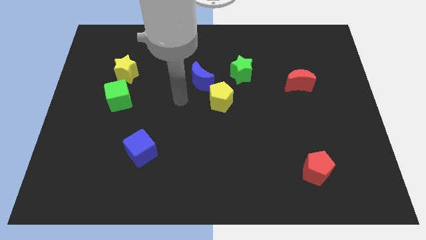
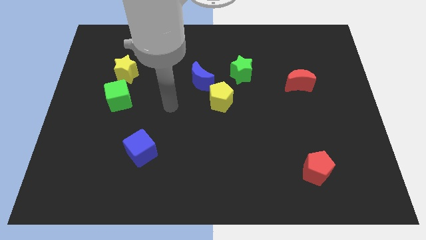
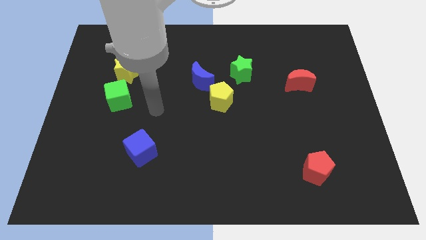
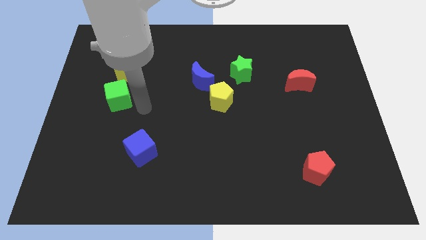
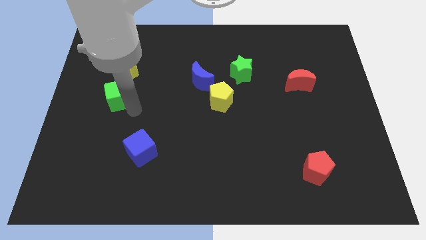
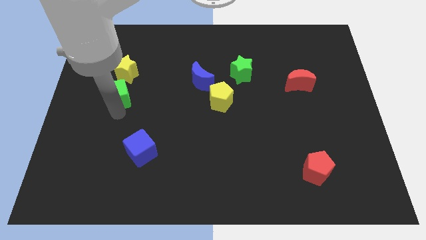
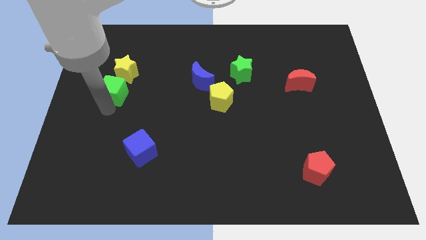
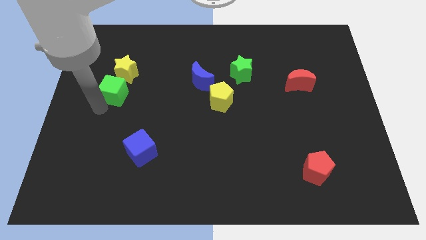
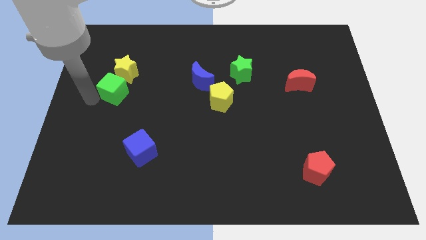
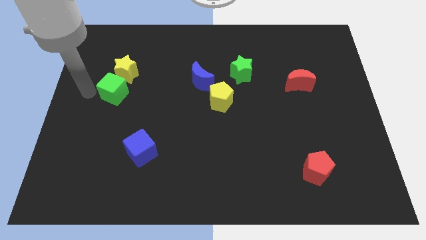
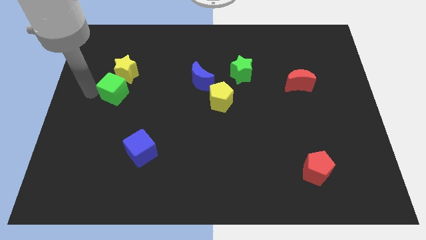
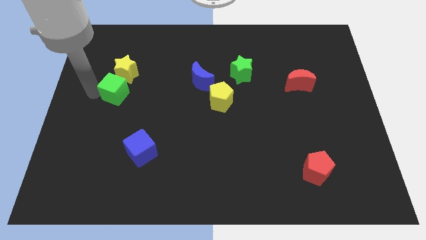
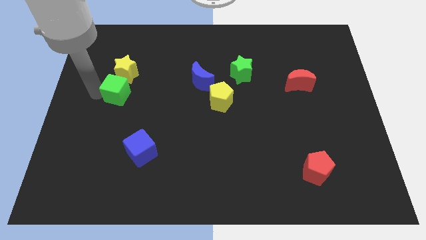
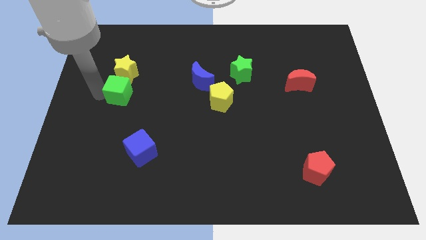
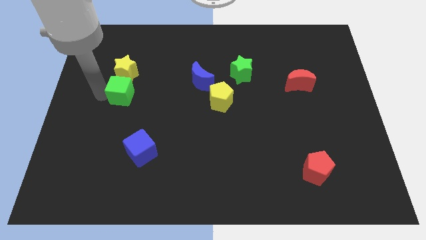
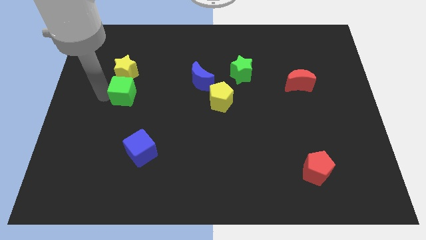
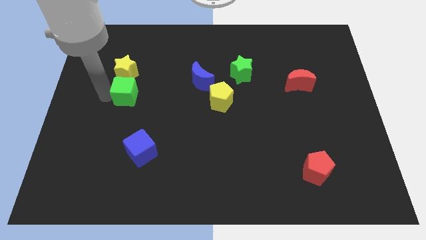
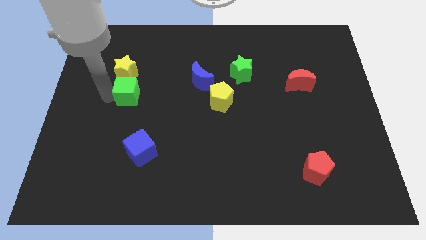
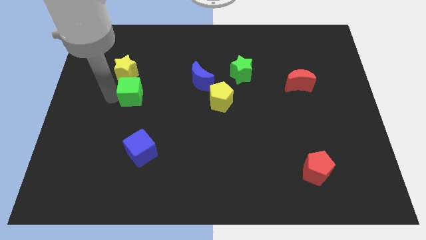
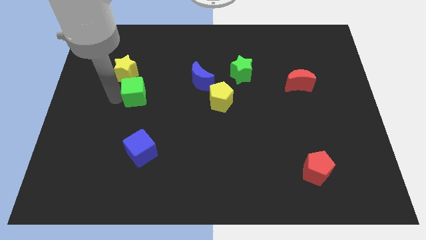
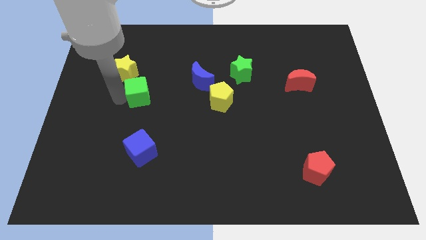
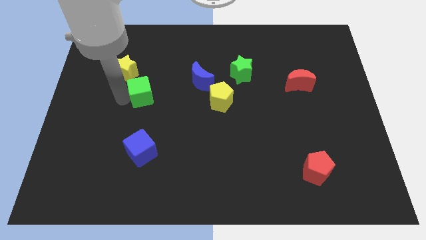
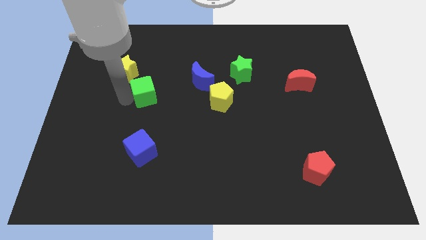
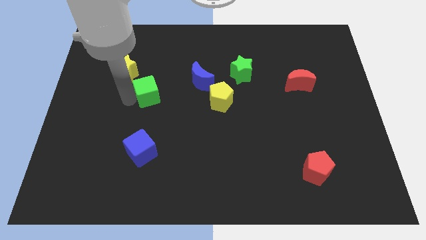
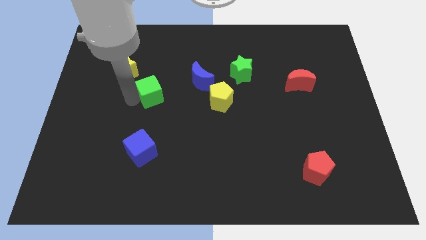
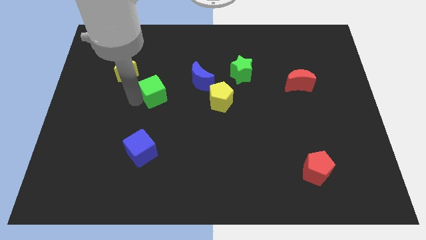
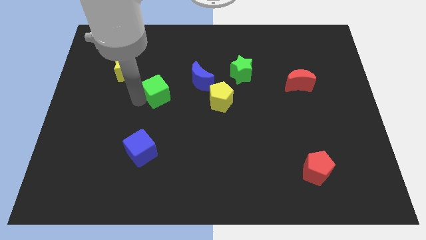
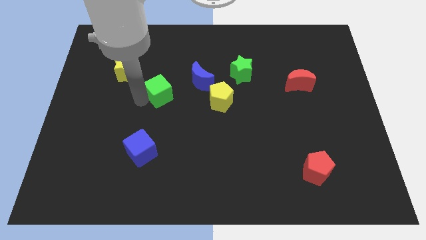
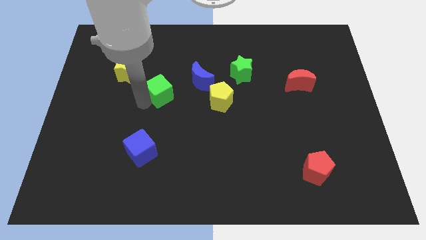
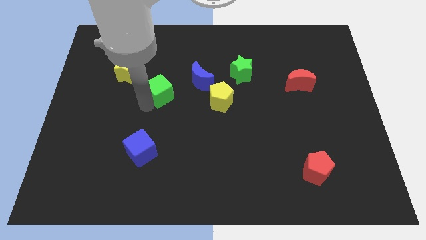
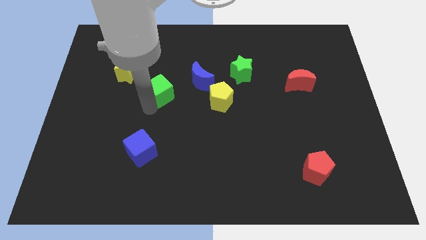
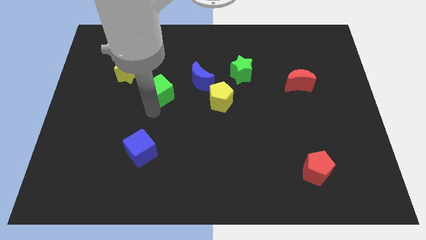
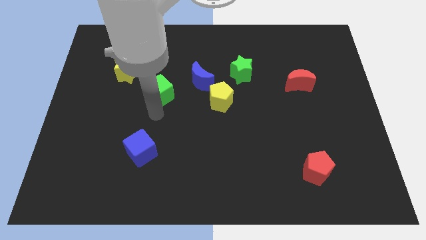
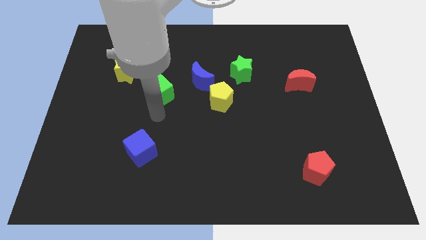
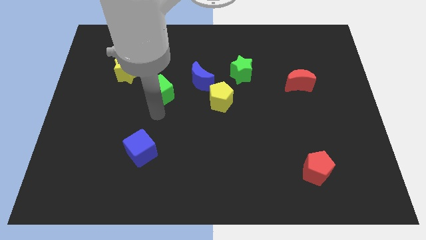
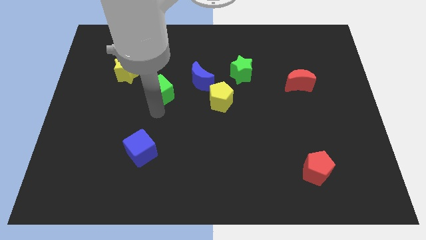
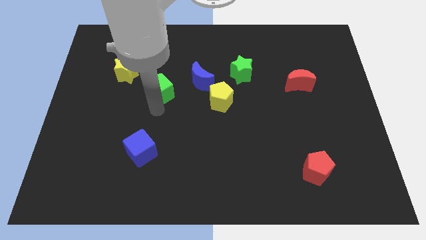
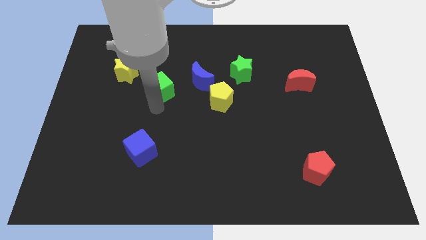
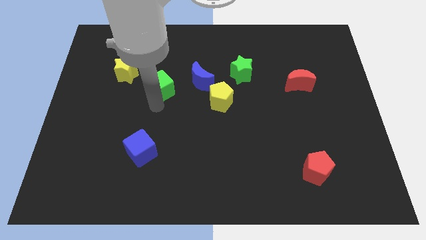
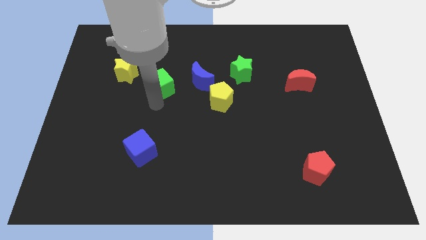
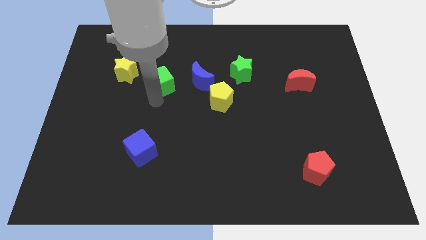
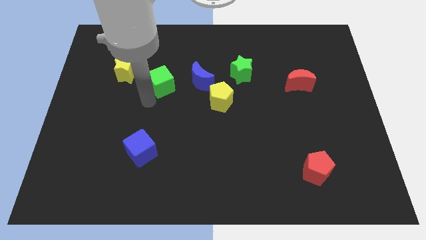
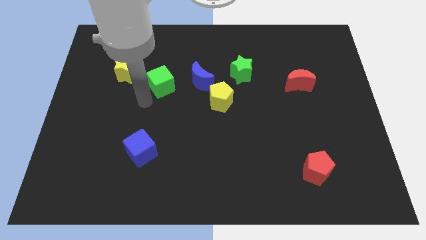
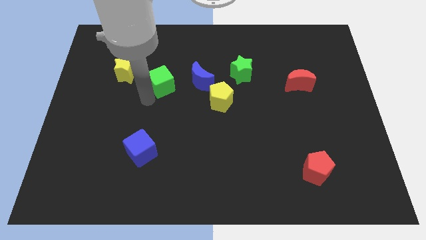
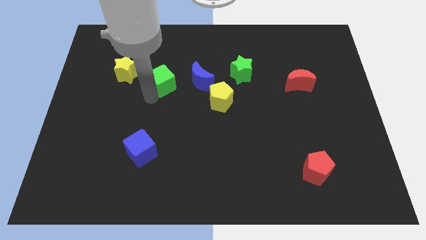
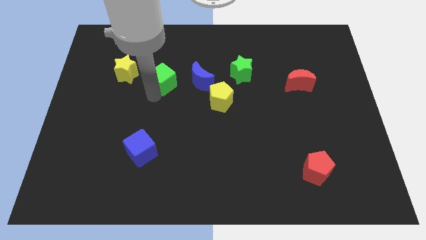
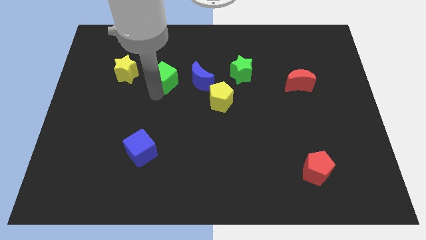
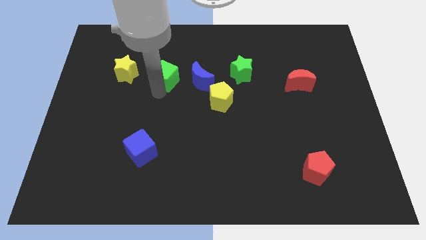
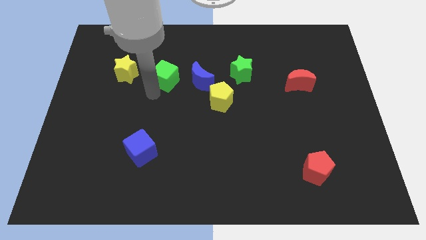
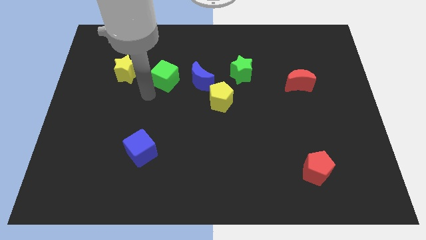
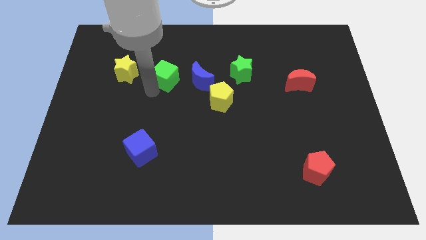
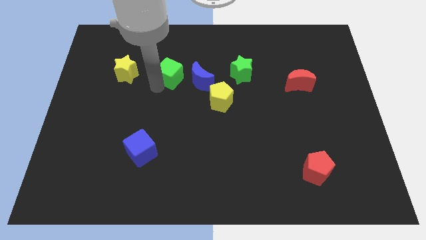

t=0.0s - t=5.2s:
put the green cube diagonally up and to the left of the blue moon

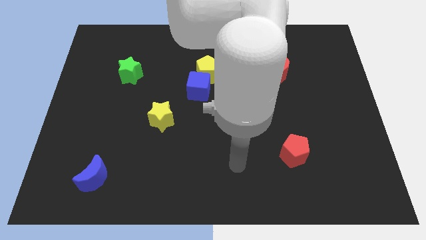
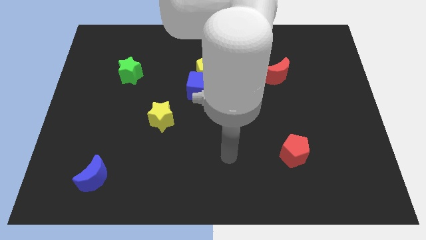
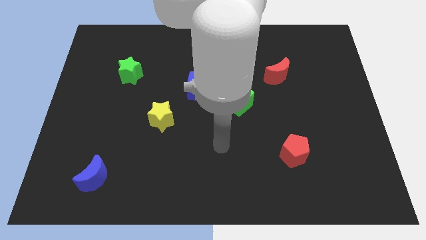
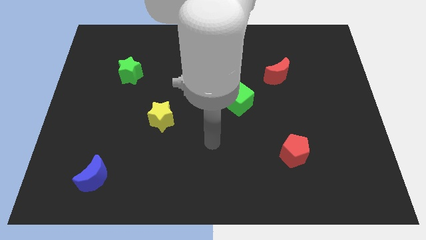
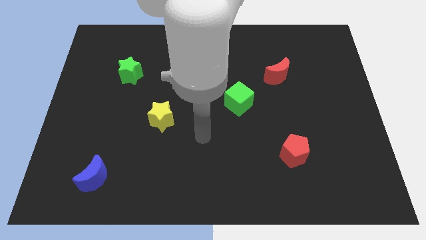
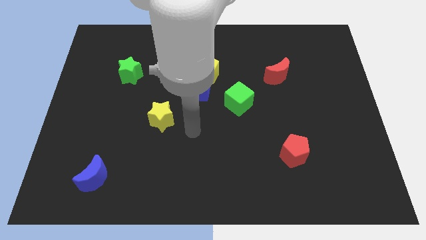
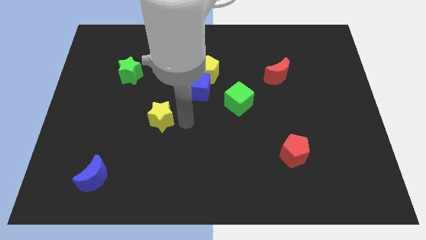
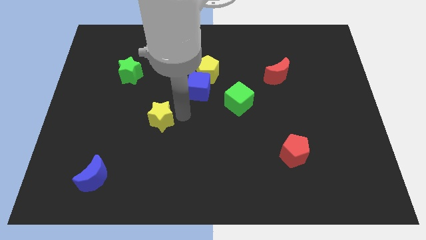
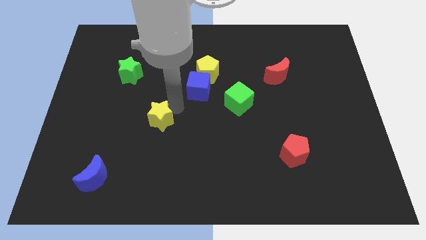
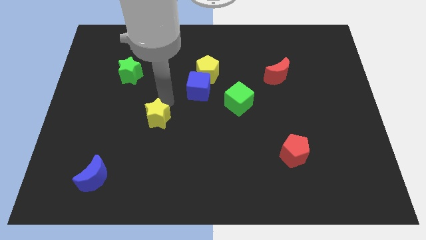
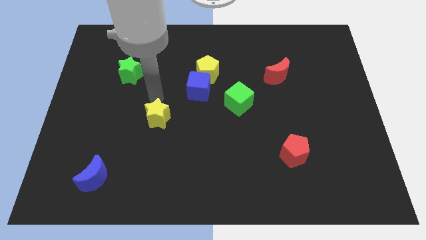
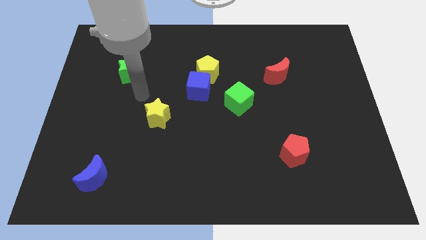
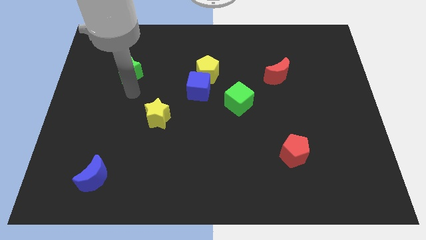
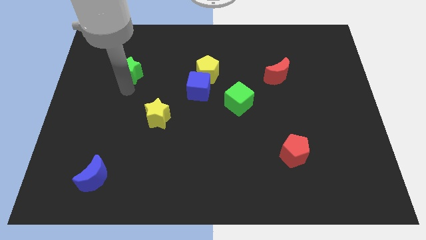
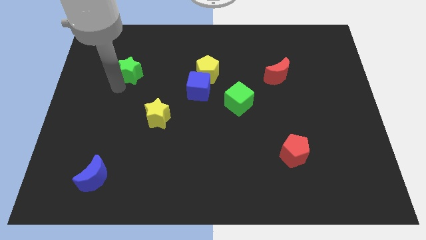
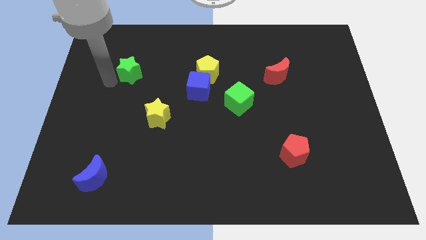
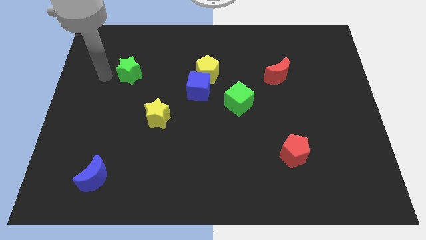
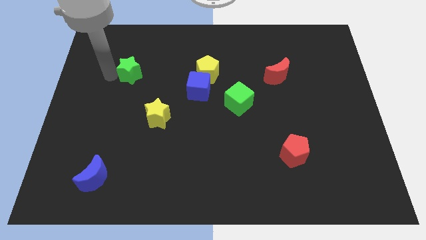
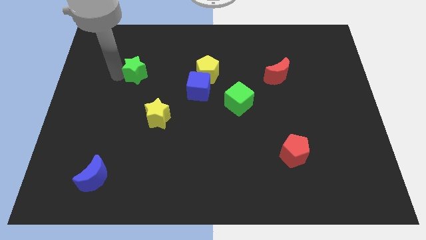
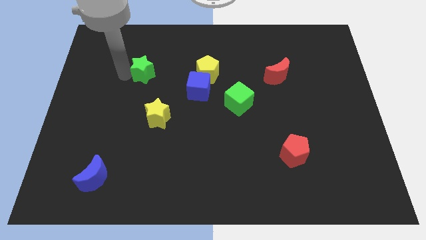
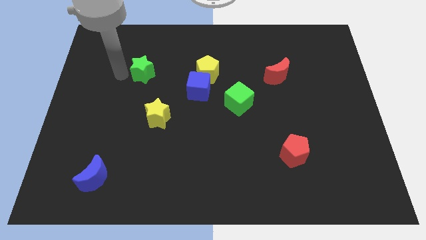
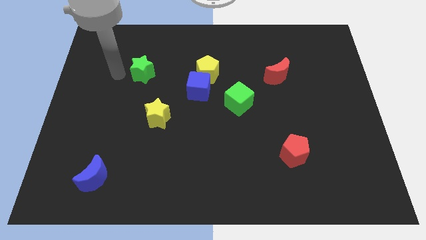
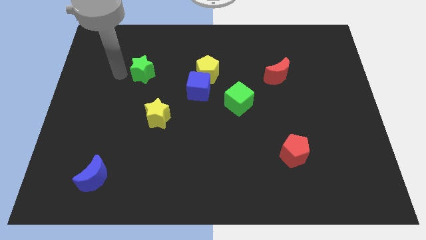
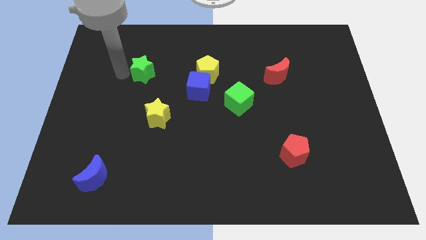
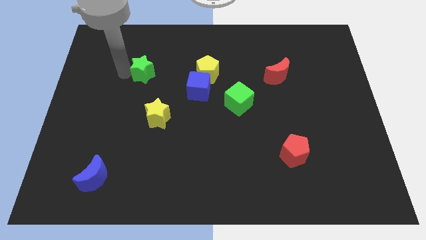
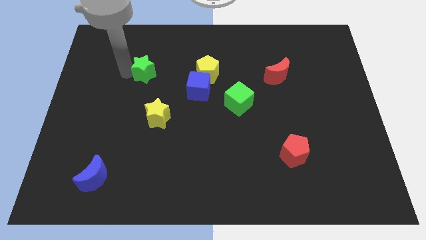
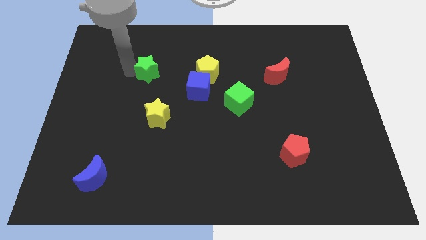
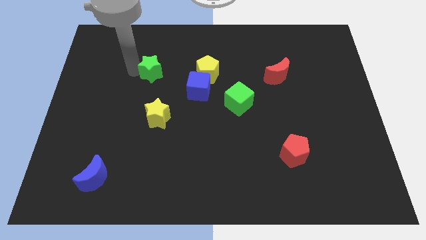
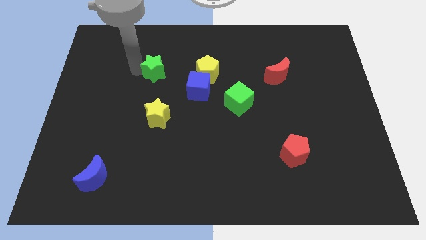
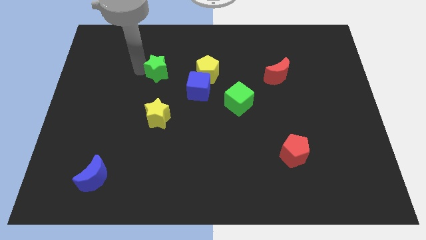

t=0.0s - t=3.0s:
put the green star to the top left of the blue cube
